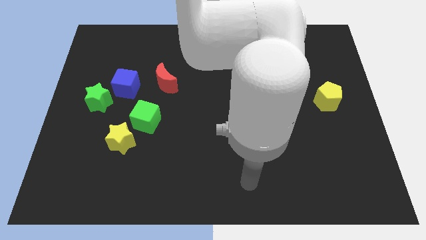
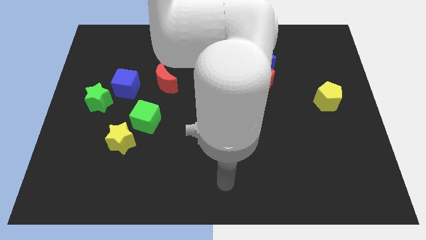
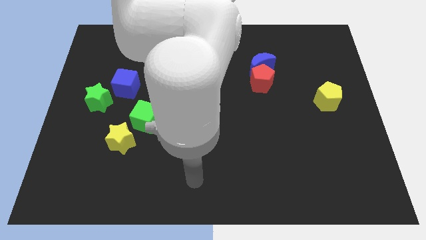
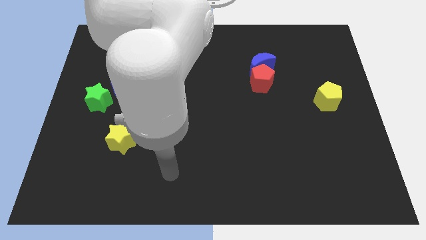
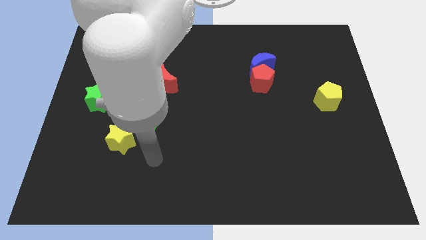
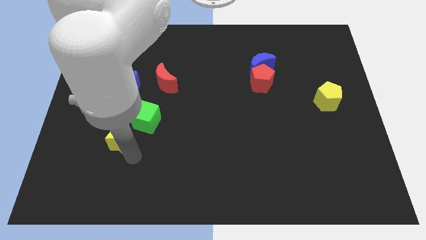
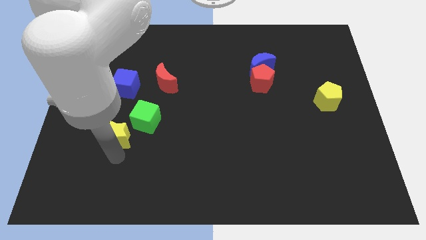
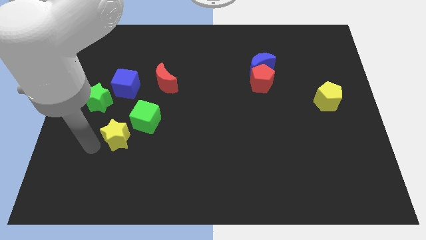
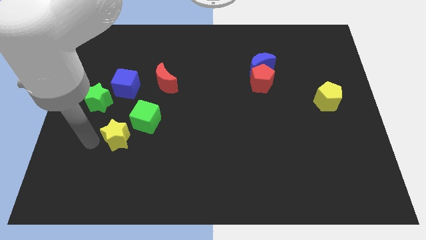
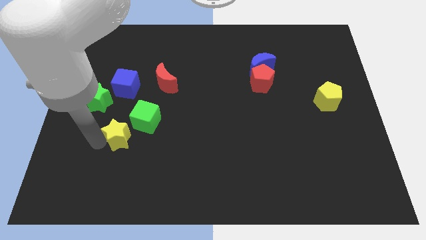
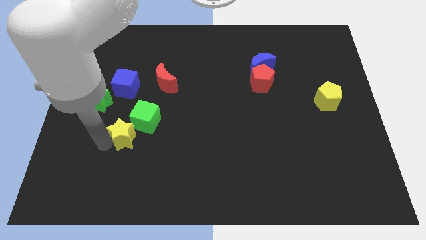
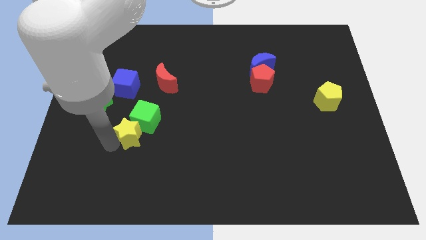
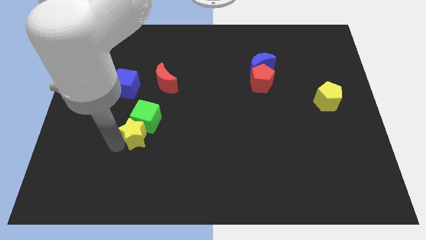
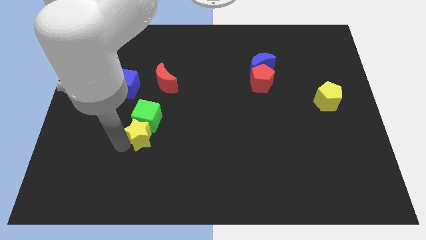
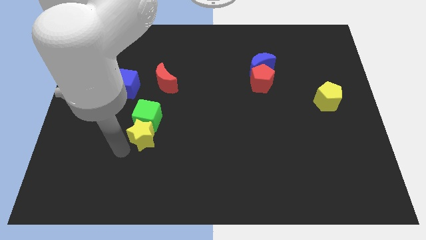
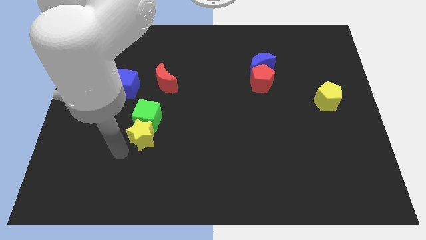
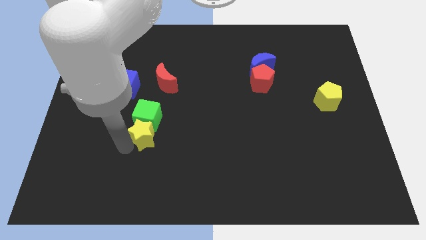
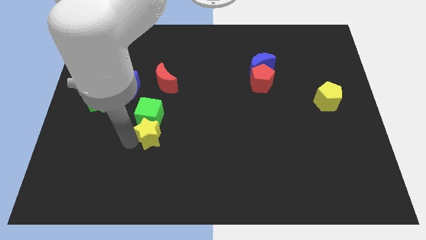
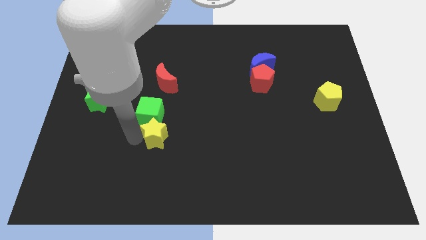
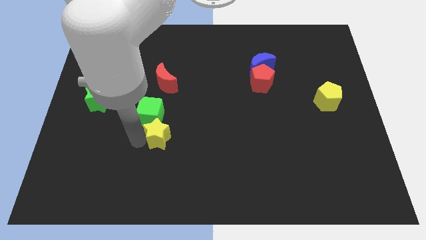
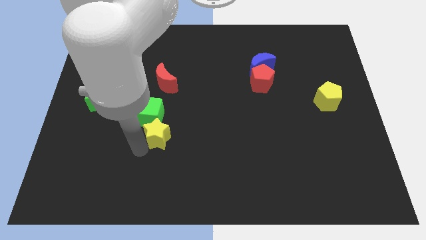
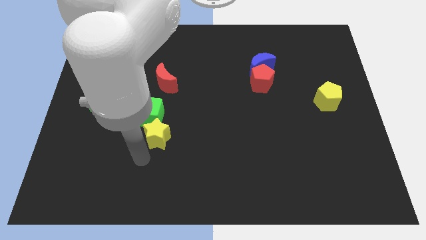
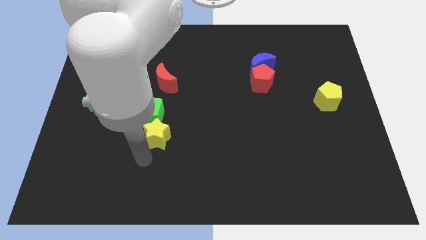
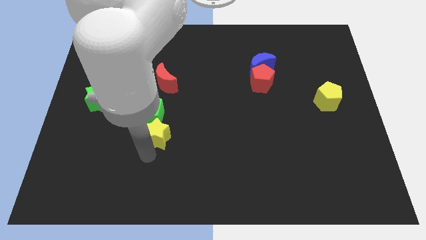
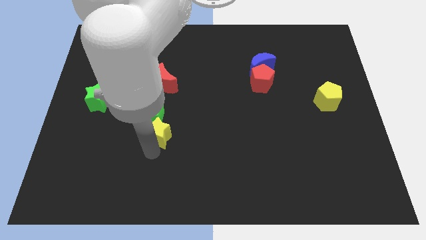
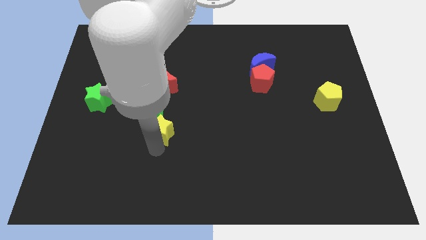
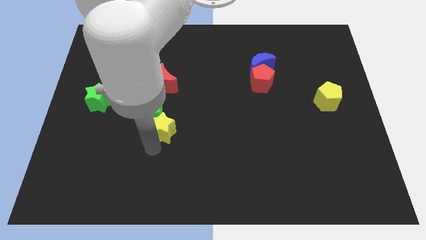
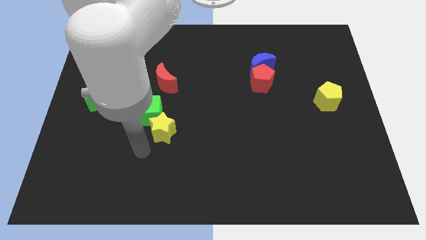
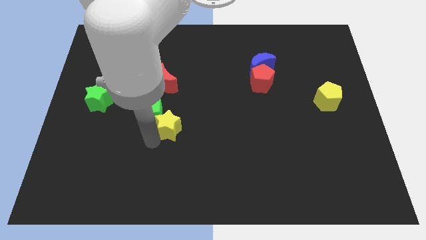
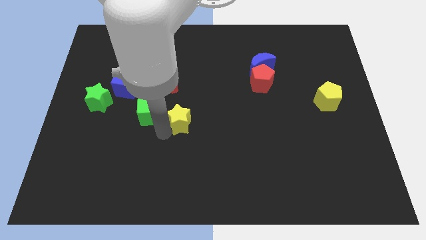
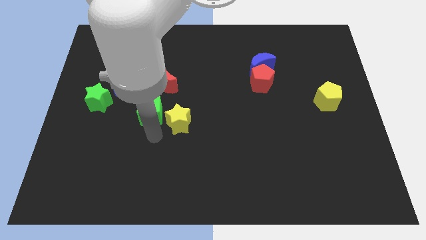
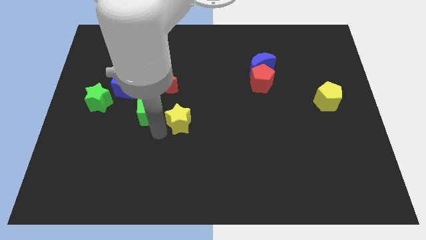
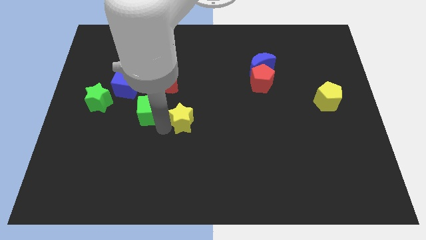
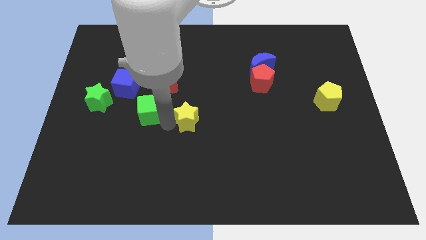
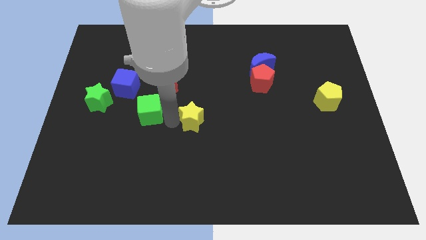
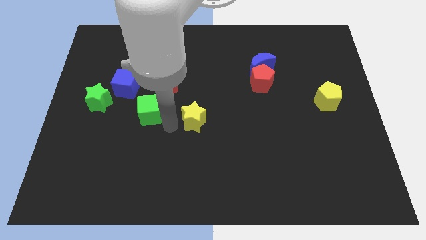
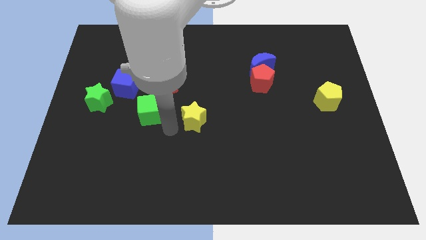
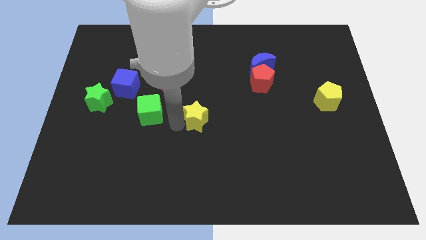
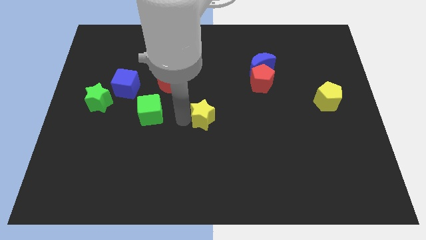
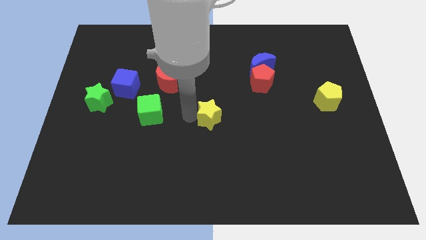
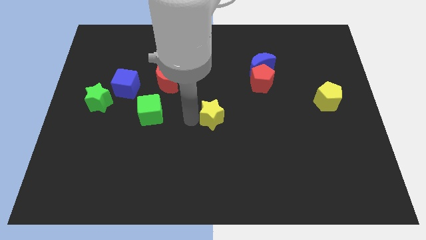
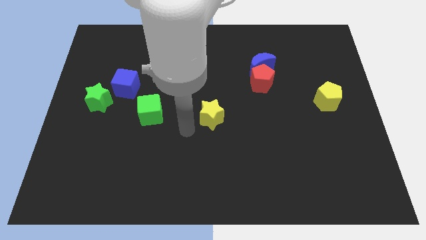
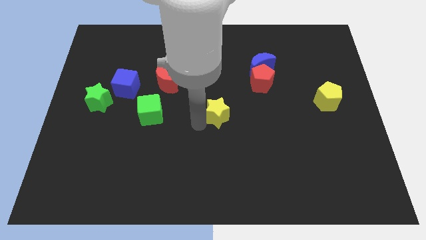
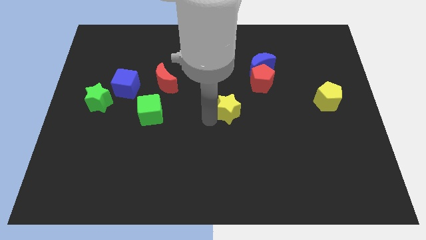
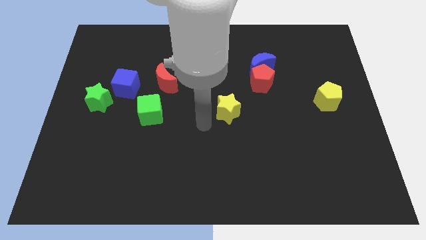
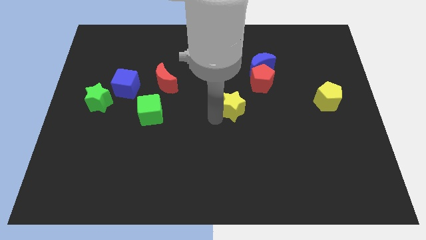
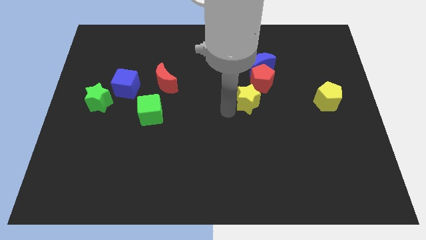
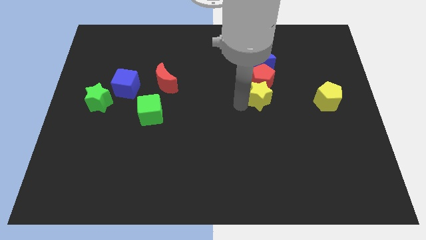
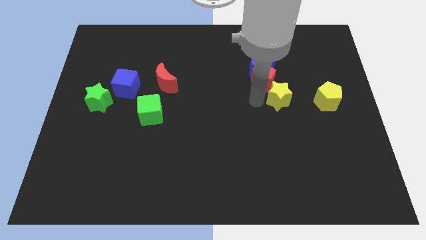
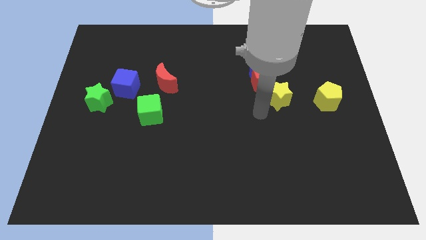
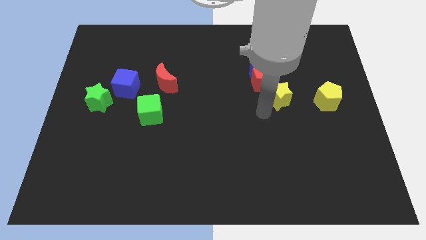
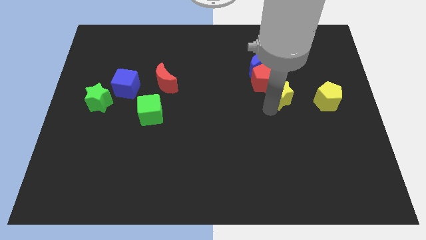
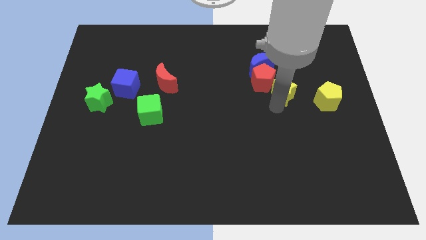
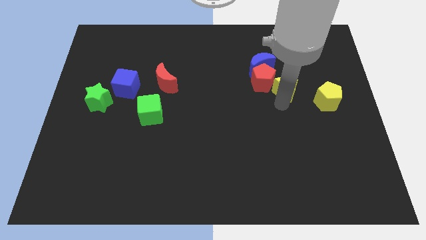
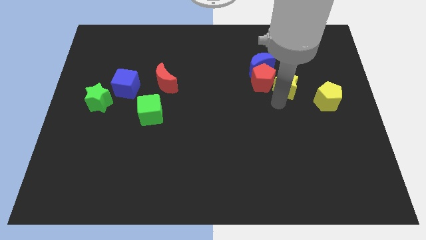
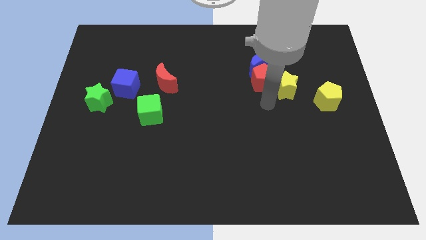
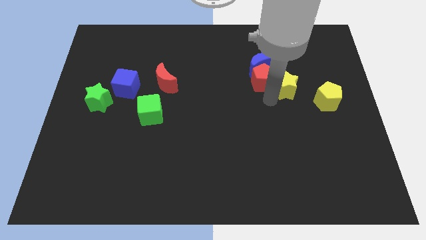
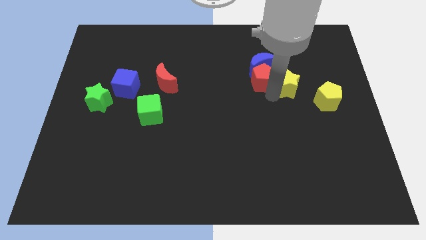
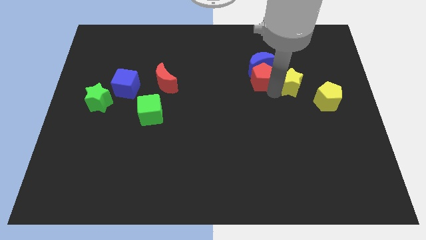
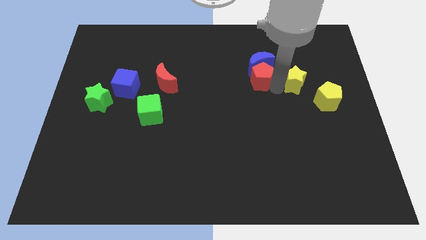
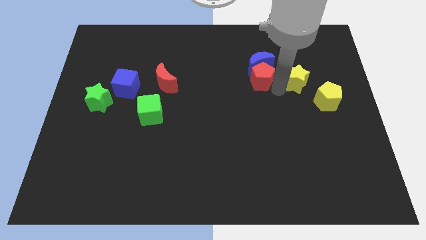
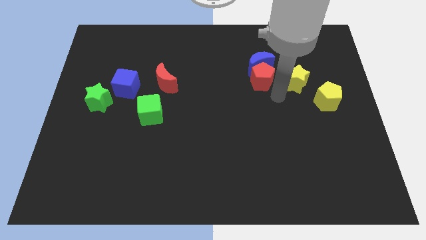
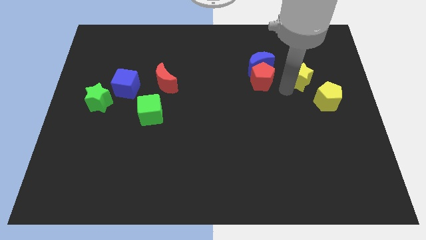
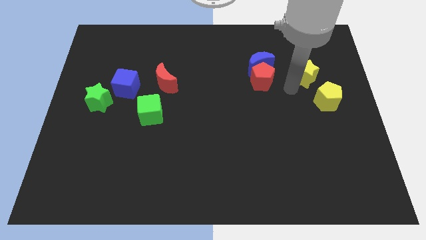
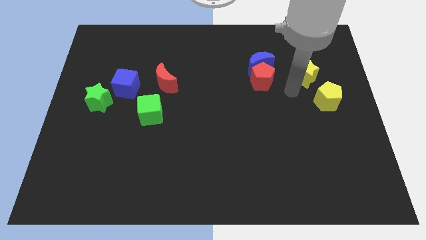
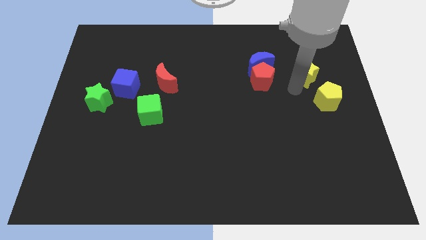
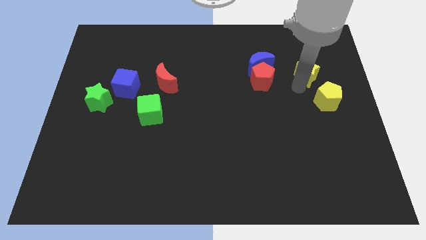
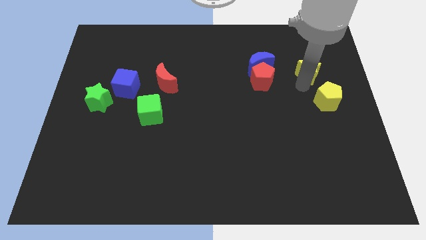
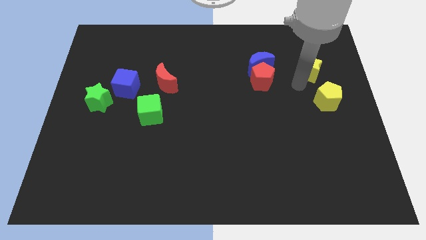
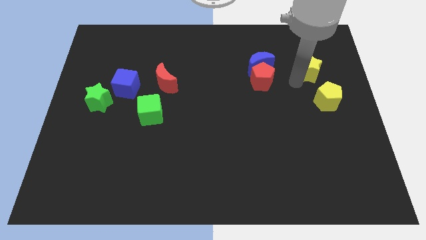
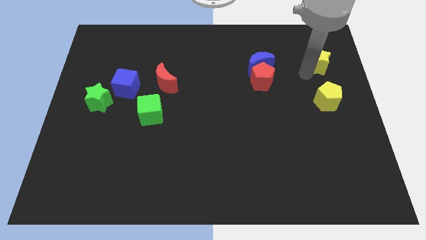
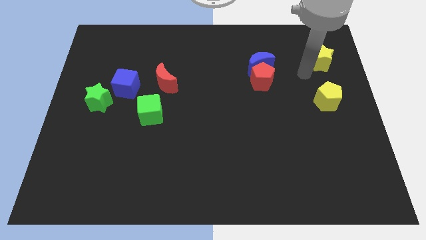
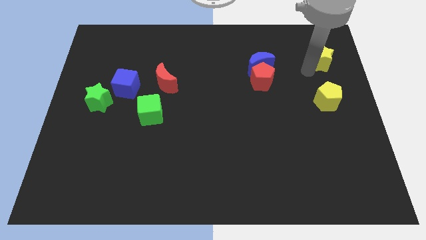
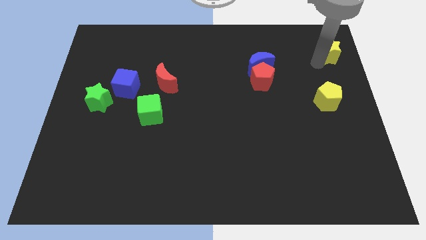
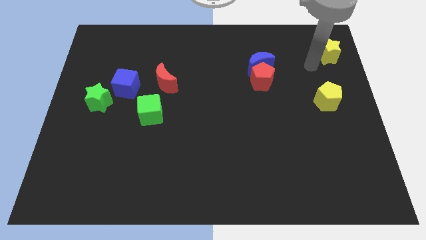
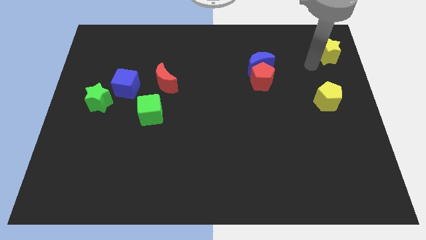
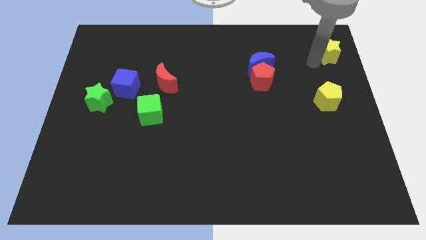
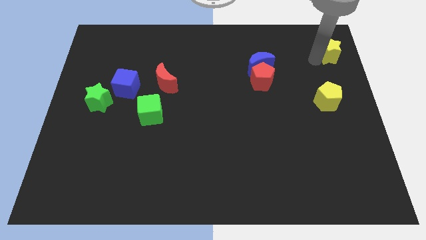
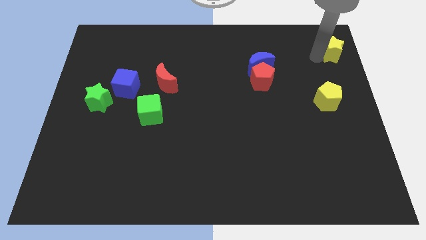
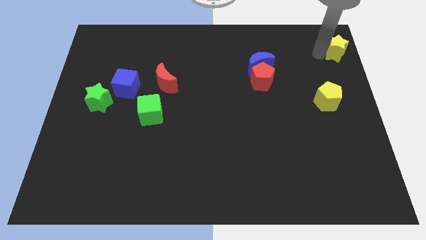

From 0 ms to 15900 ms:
move the yellow star to the top right of the board
